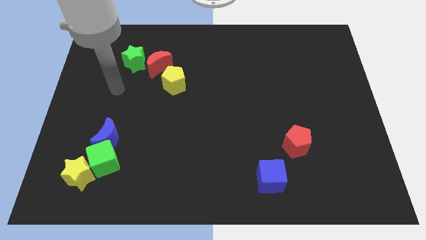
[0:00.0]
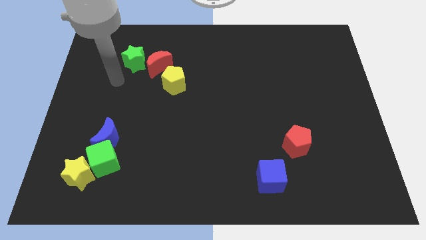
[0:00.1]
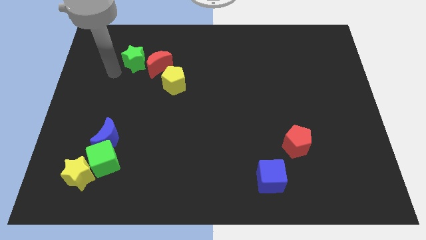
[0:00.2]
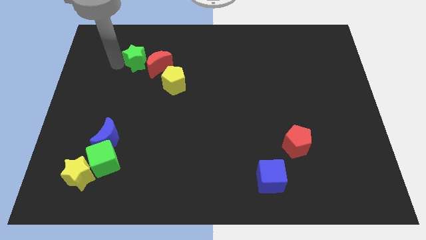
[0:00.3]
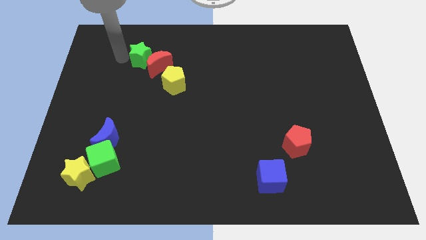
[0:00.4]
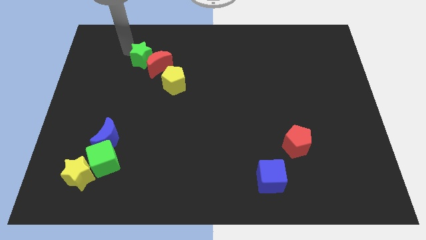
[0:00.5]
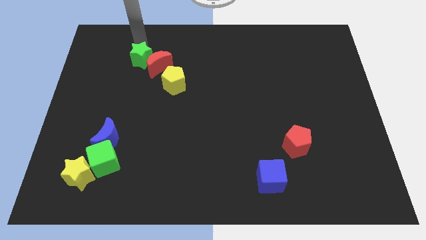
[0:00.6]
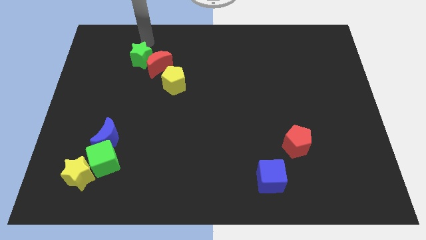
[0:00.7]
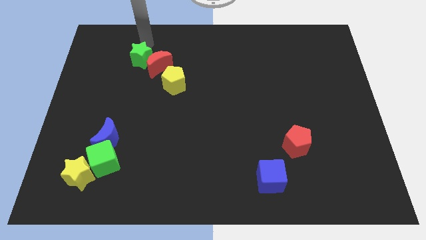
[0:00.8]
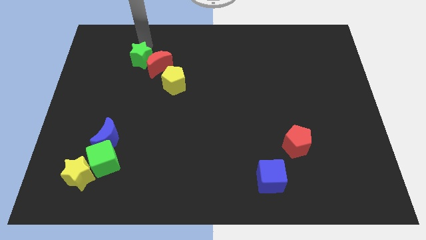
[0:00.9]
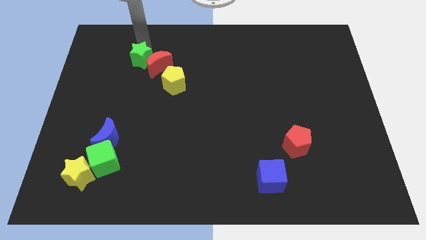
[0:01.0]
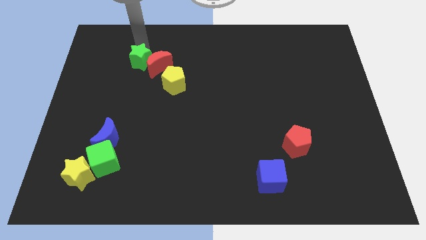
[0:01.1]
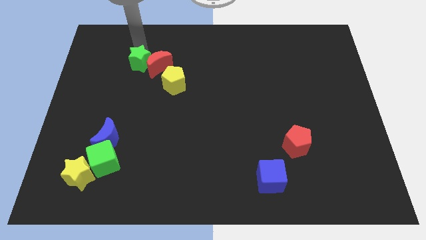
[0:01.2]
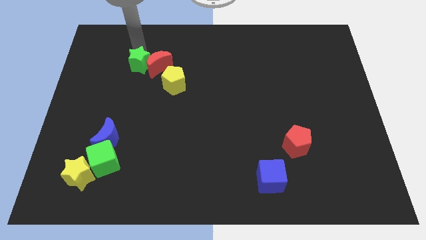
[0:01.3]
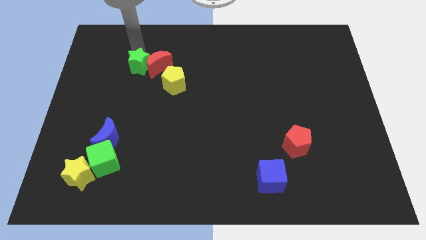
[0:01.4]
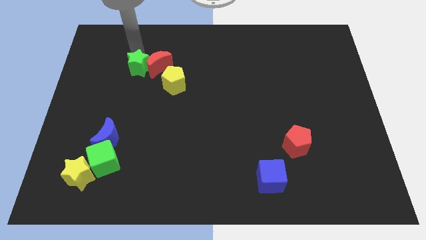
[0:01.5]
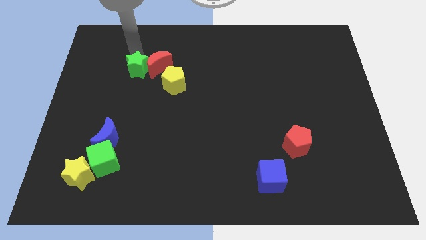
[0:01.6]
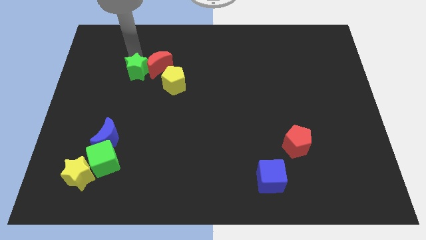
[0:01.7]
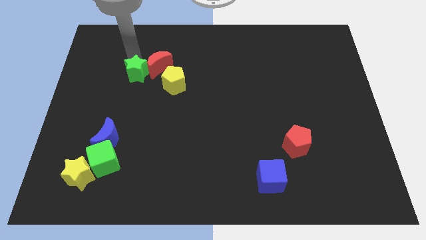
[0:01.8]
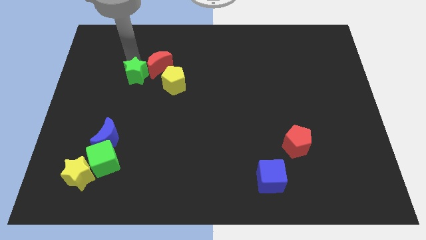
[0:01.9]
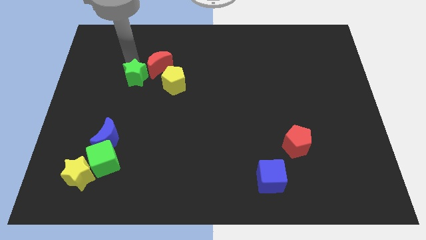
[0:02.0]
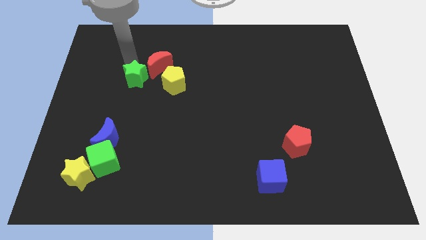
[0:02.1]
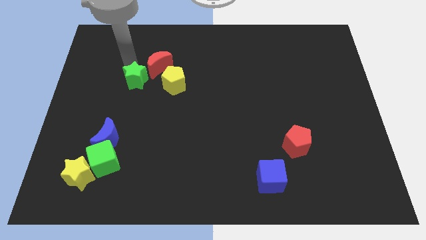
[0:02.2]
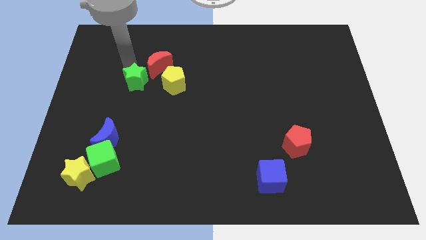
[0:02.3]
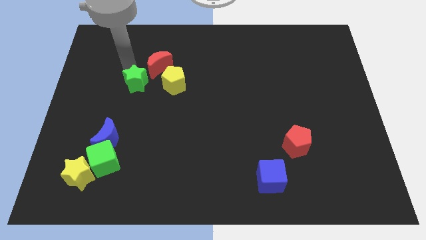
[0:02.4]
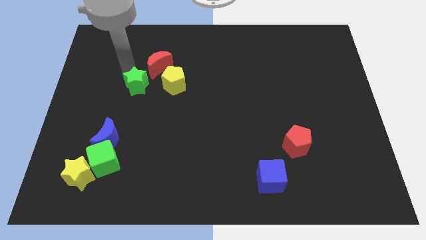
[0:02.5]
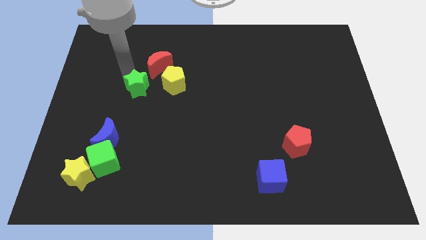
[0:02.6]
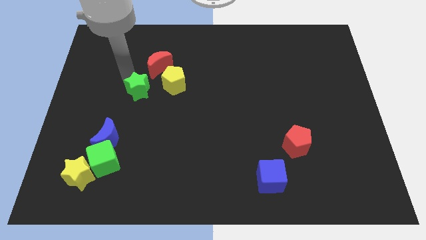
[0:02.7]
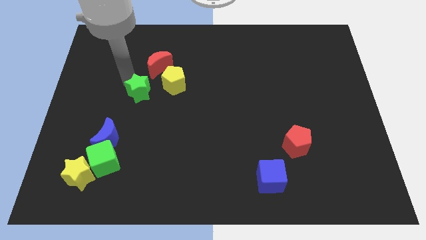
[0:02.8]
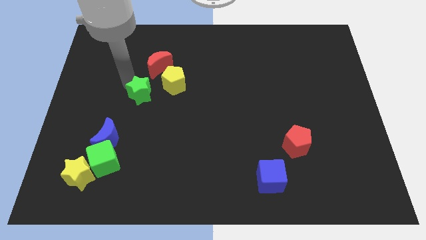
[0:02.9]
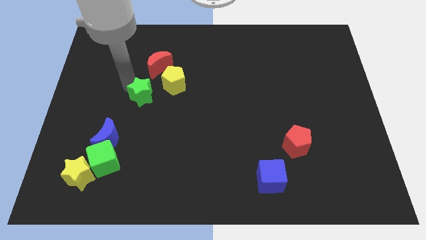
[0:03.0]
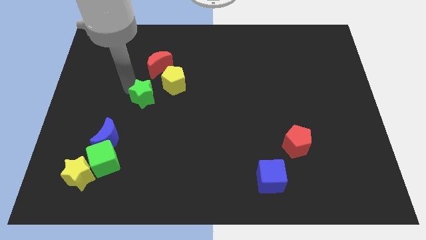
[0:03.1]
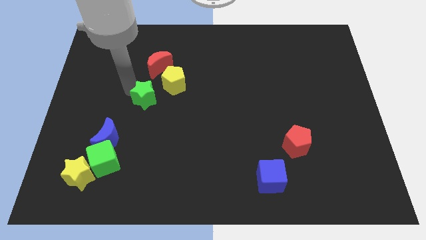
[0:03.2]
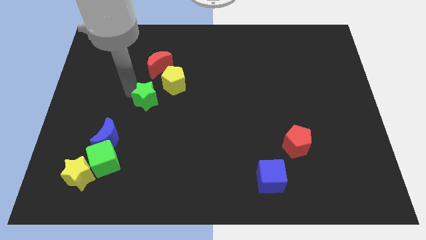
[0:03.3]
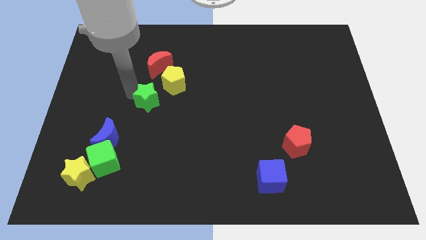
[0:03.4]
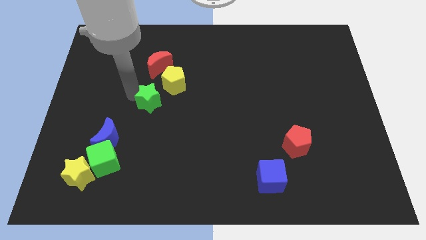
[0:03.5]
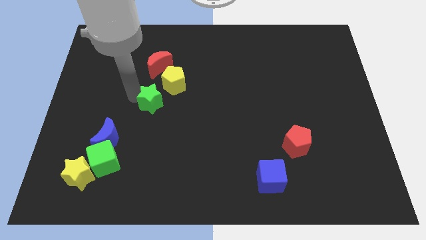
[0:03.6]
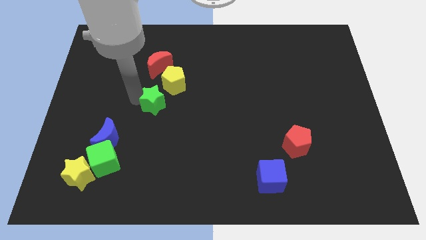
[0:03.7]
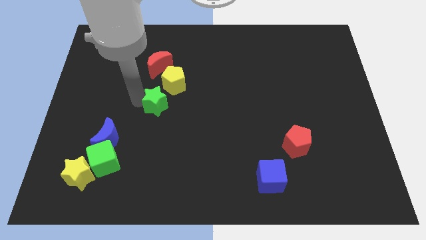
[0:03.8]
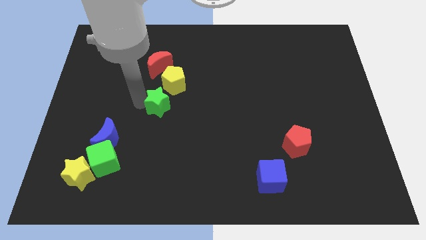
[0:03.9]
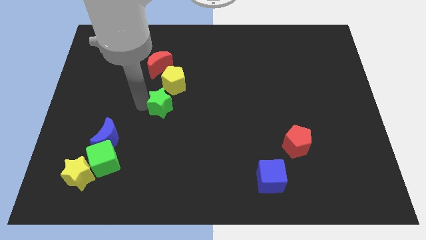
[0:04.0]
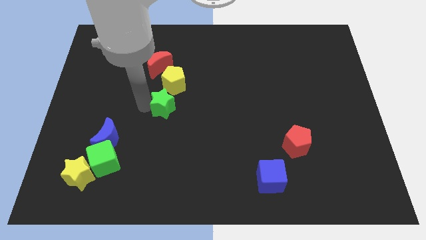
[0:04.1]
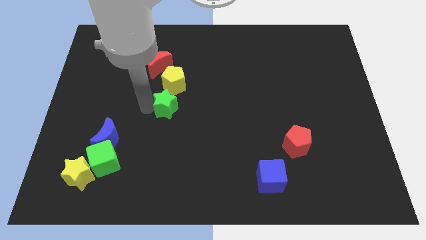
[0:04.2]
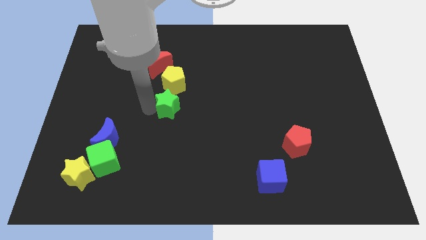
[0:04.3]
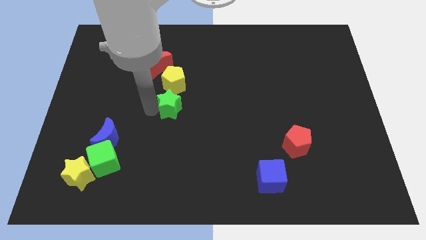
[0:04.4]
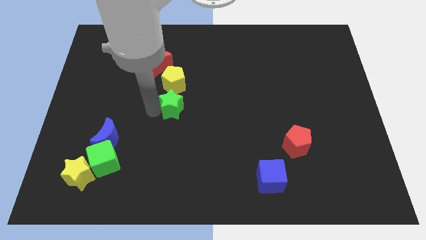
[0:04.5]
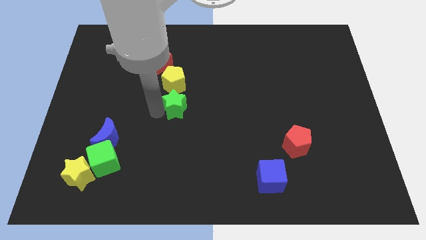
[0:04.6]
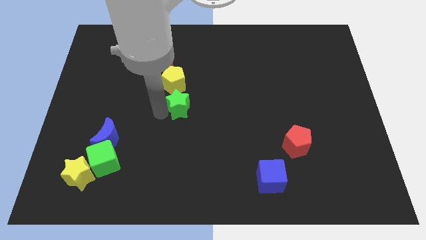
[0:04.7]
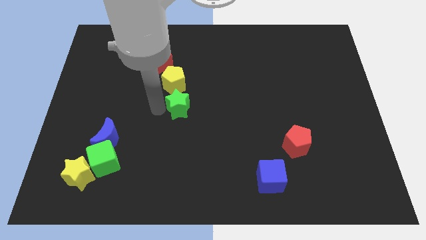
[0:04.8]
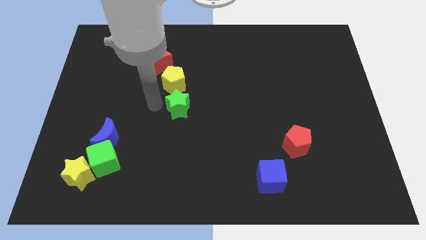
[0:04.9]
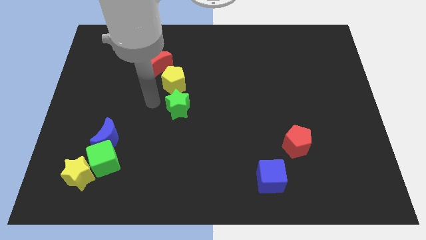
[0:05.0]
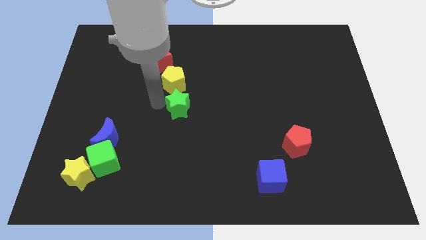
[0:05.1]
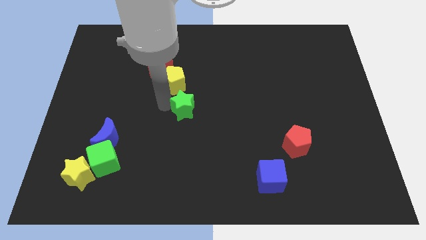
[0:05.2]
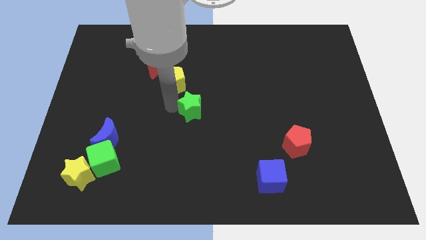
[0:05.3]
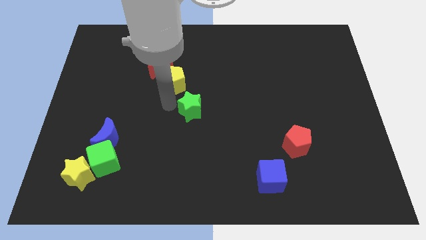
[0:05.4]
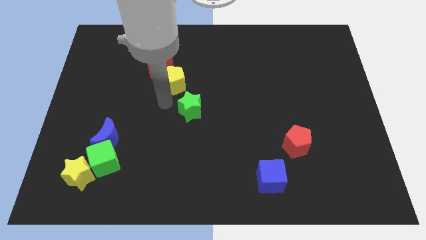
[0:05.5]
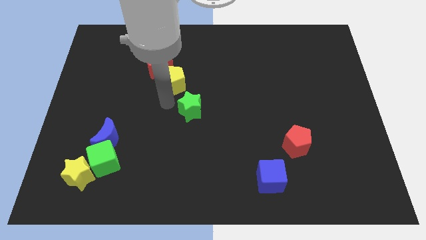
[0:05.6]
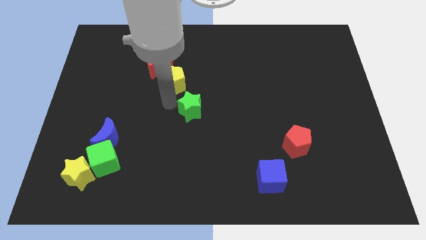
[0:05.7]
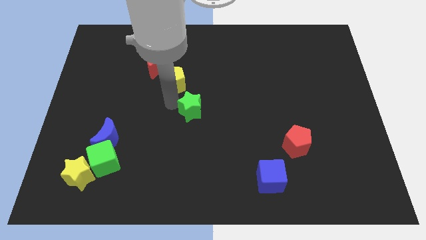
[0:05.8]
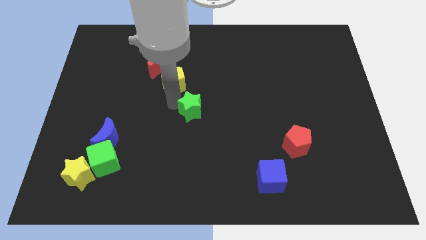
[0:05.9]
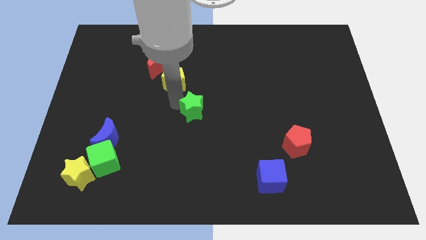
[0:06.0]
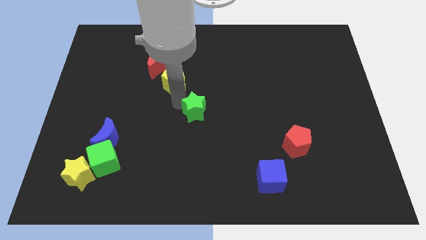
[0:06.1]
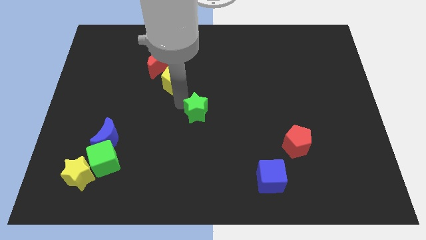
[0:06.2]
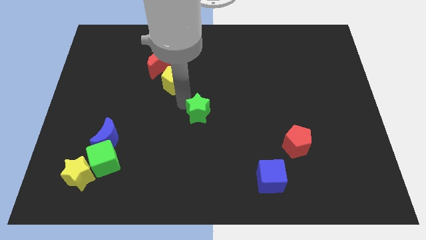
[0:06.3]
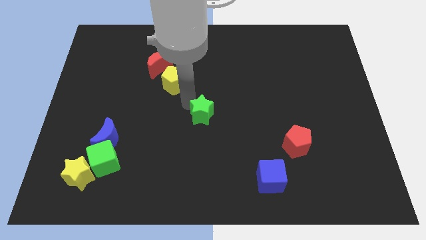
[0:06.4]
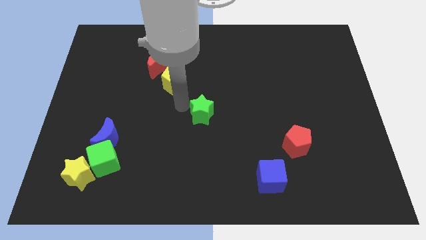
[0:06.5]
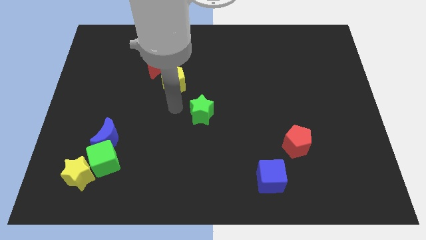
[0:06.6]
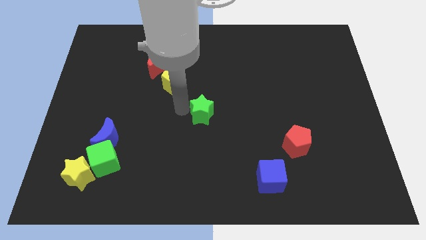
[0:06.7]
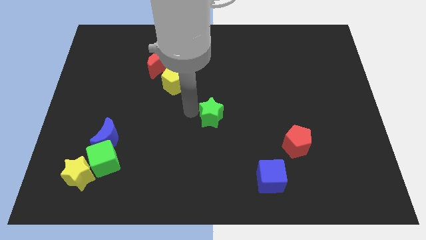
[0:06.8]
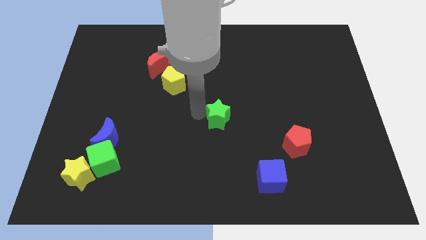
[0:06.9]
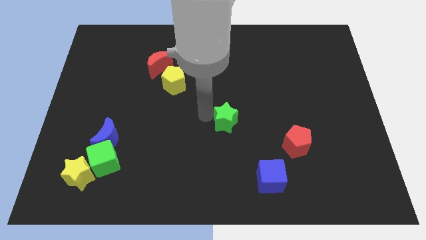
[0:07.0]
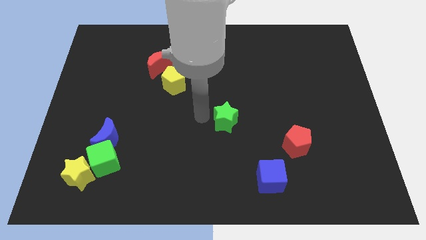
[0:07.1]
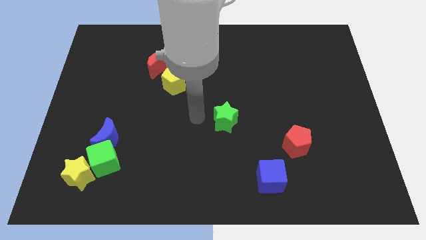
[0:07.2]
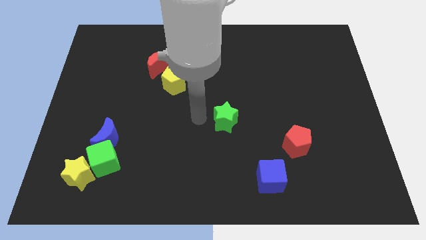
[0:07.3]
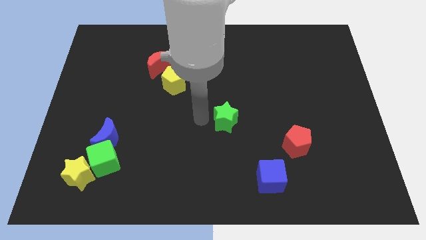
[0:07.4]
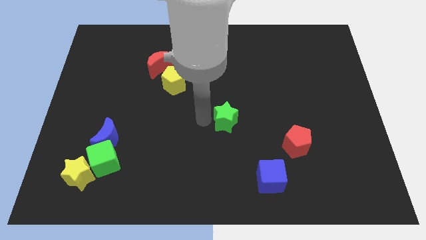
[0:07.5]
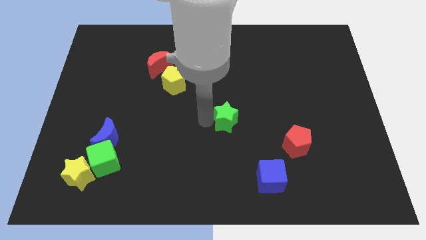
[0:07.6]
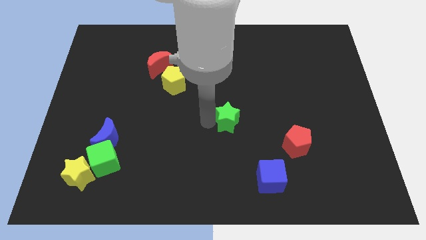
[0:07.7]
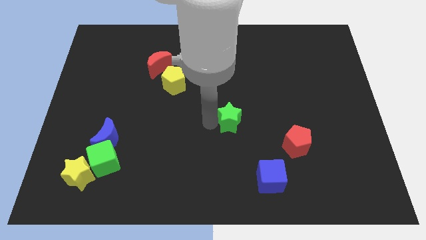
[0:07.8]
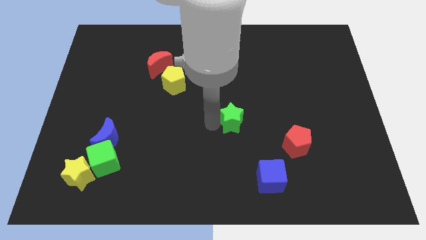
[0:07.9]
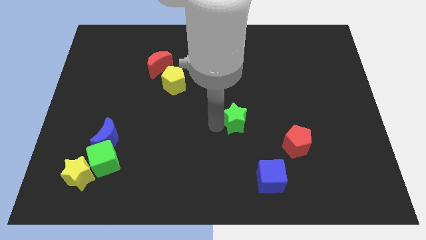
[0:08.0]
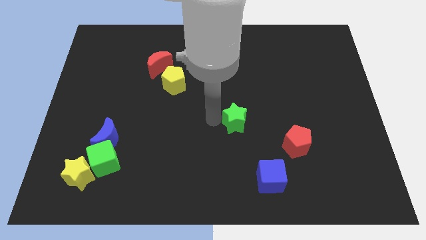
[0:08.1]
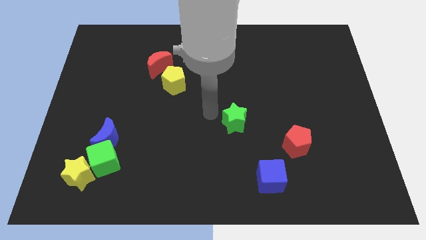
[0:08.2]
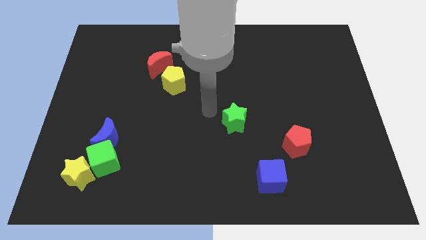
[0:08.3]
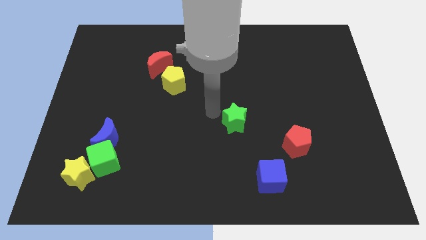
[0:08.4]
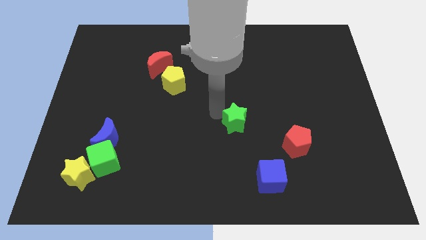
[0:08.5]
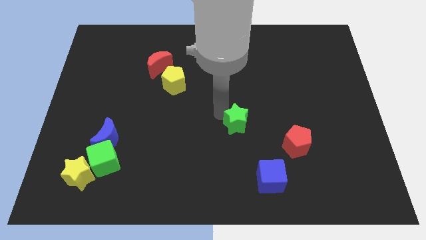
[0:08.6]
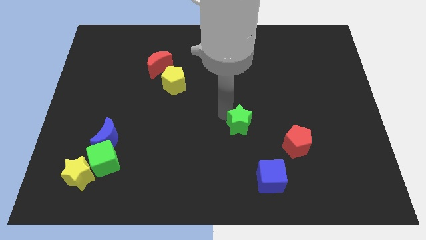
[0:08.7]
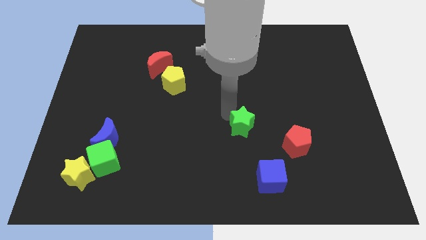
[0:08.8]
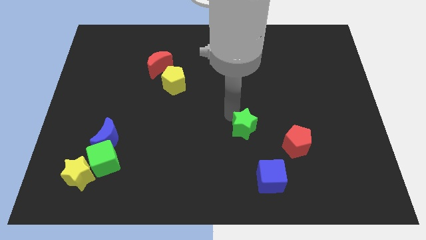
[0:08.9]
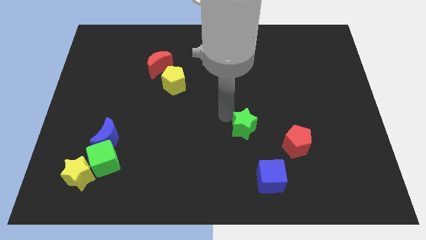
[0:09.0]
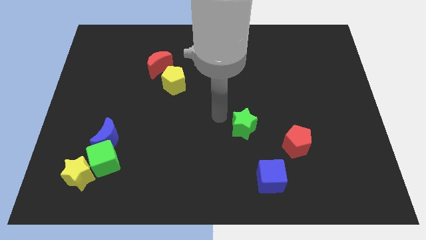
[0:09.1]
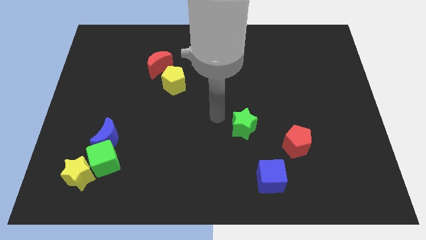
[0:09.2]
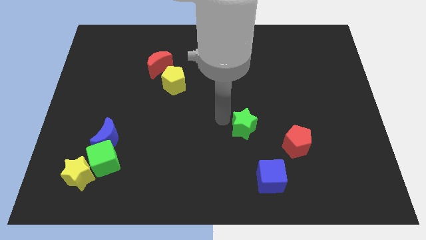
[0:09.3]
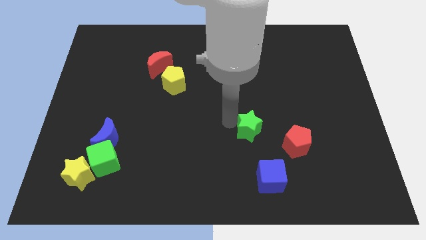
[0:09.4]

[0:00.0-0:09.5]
slide the green star to the top side of the blue cube
